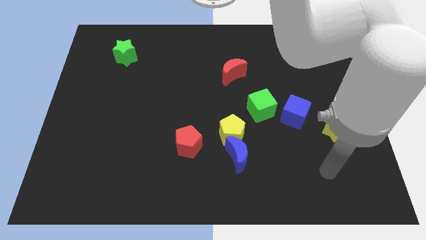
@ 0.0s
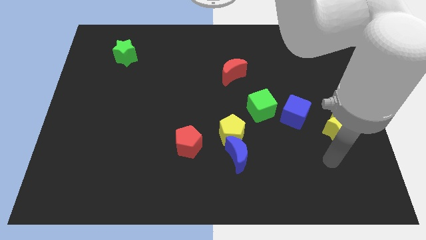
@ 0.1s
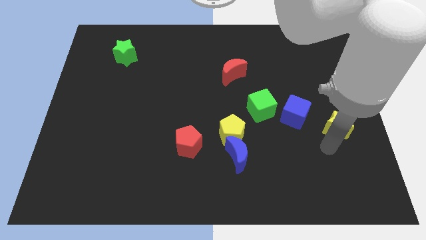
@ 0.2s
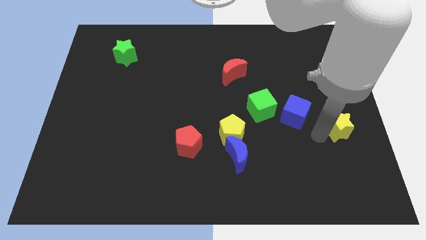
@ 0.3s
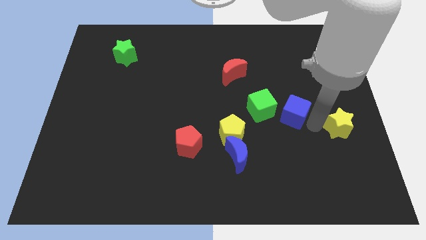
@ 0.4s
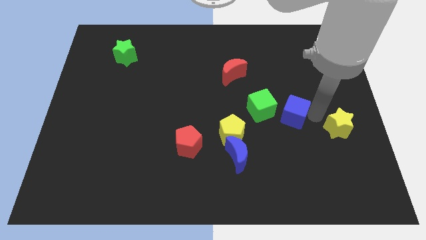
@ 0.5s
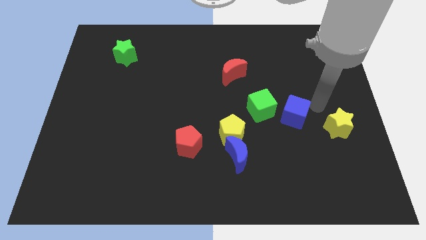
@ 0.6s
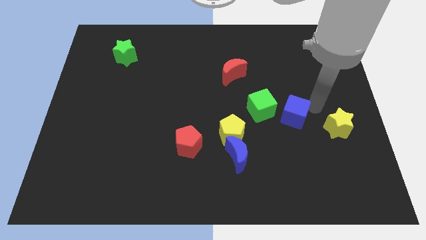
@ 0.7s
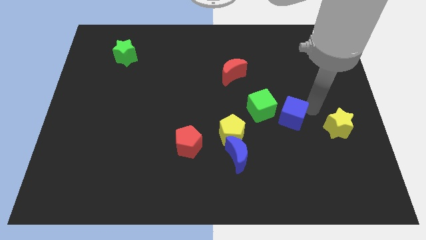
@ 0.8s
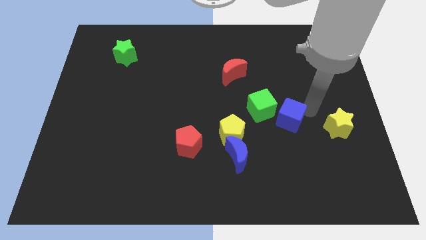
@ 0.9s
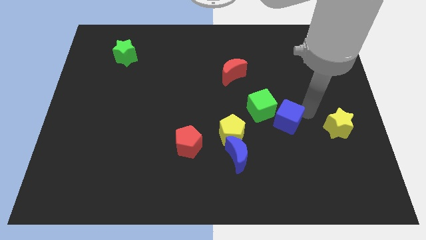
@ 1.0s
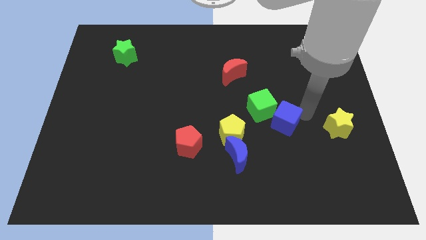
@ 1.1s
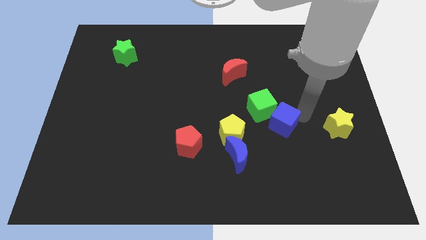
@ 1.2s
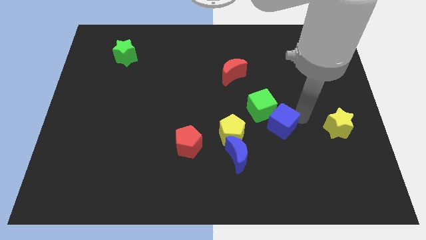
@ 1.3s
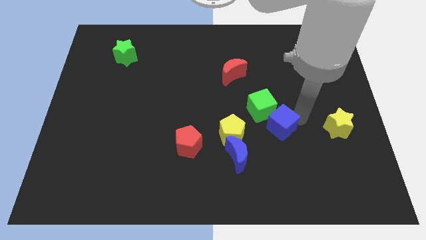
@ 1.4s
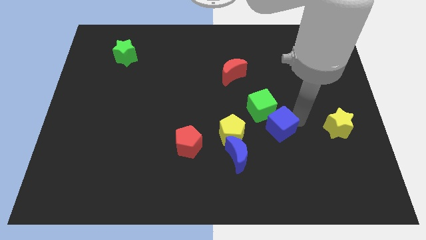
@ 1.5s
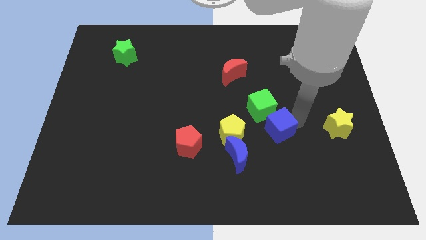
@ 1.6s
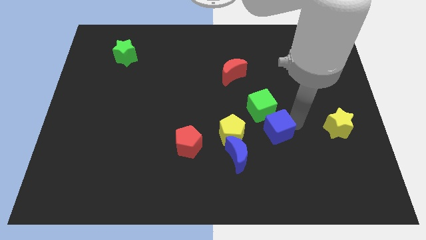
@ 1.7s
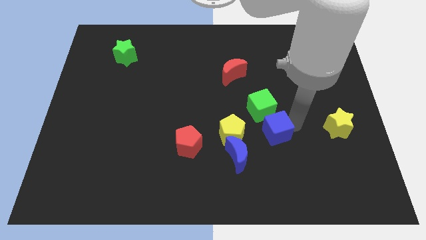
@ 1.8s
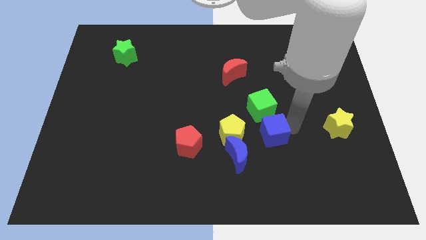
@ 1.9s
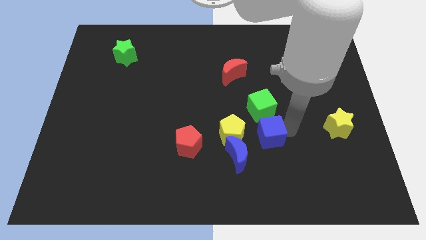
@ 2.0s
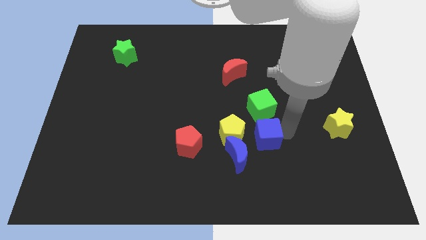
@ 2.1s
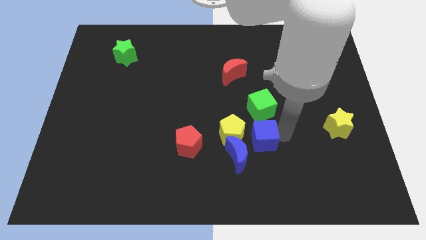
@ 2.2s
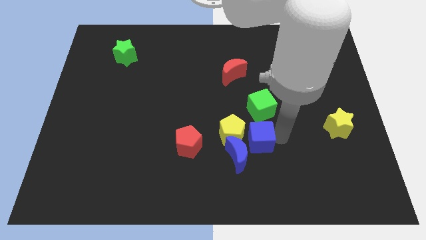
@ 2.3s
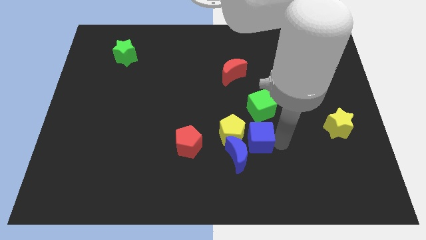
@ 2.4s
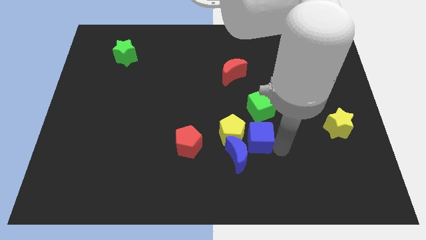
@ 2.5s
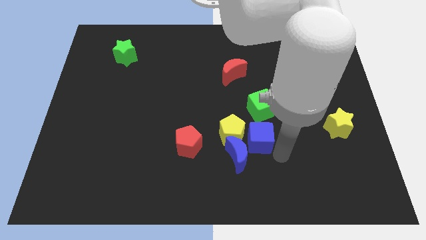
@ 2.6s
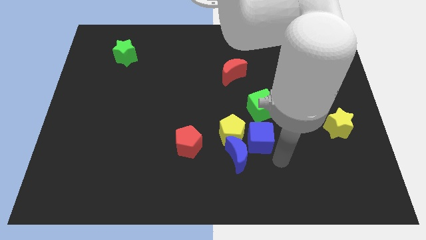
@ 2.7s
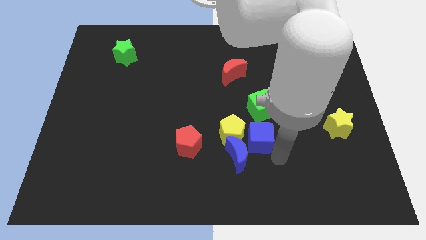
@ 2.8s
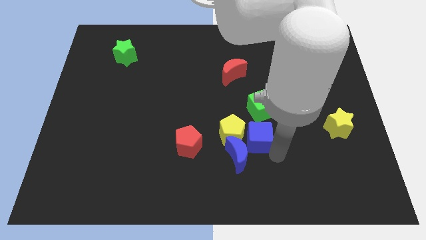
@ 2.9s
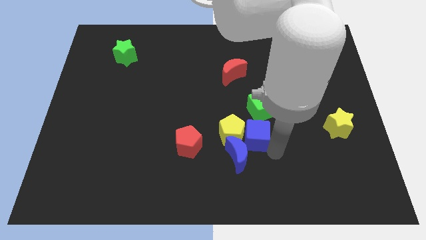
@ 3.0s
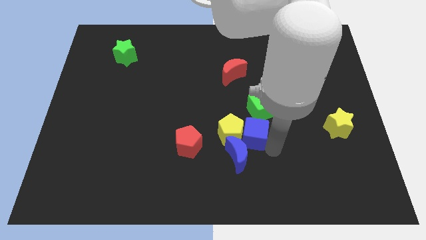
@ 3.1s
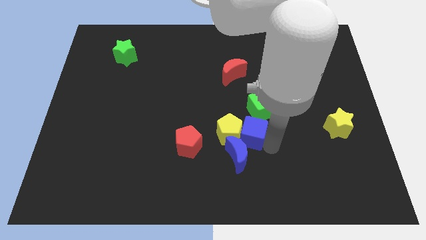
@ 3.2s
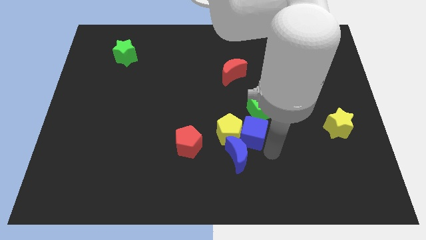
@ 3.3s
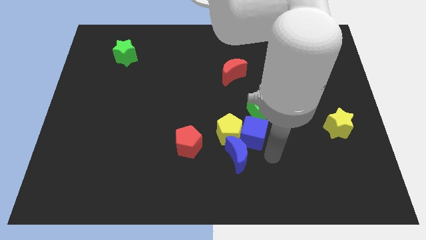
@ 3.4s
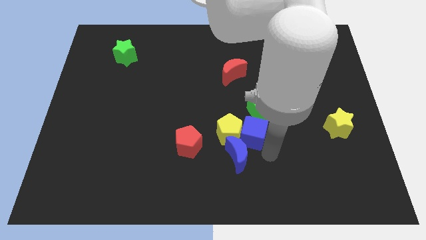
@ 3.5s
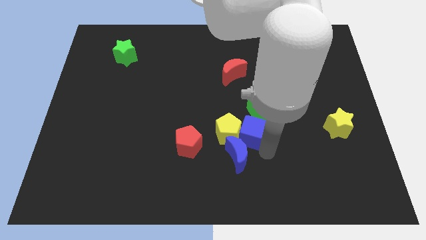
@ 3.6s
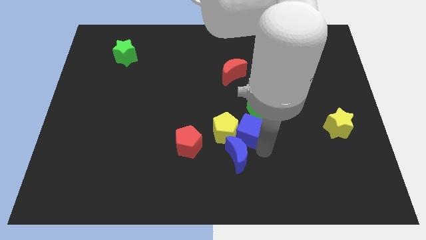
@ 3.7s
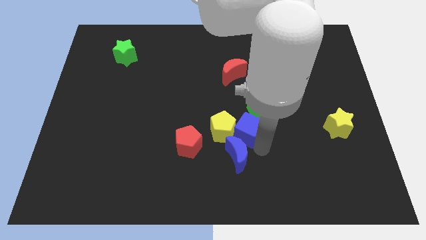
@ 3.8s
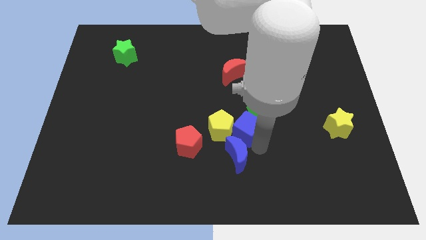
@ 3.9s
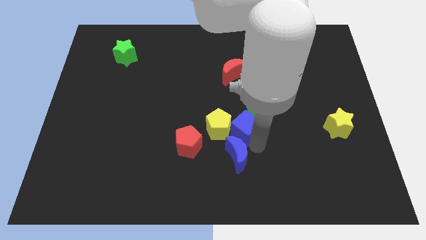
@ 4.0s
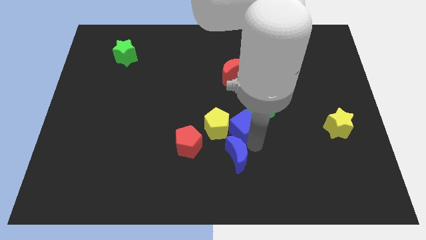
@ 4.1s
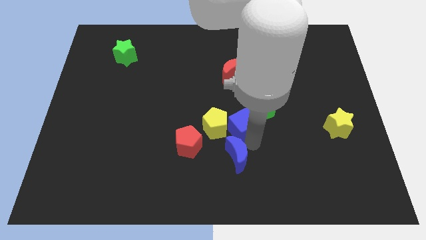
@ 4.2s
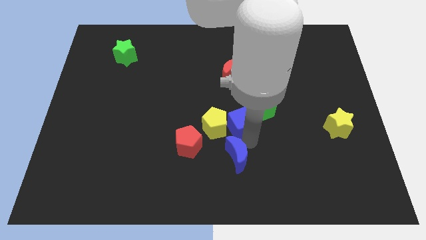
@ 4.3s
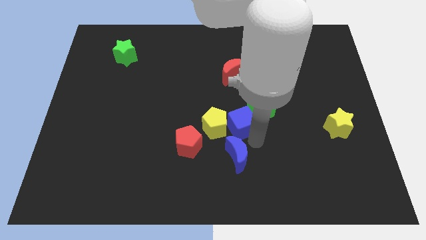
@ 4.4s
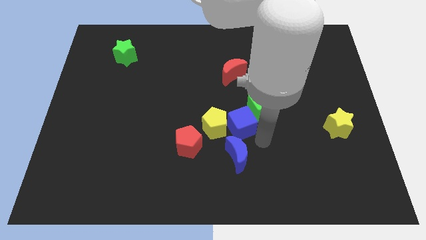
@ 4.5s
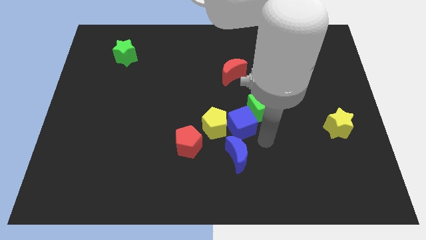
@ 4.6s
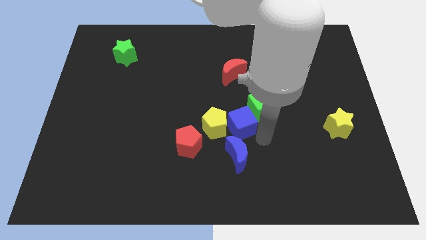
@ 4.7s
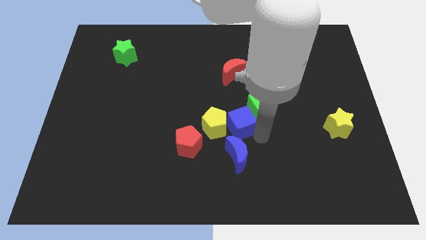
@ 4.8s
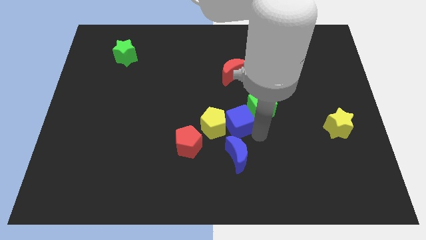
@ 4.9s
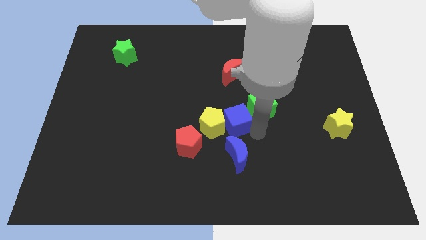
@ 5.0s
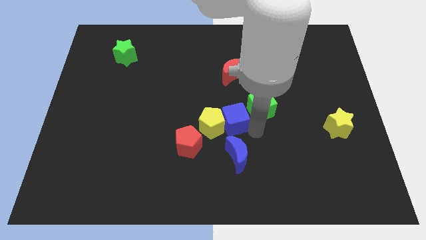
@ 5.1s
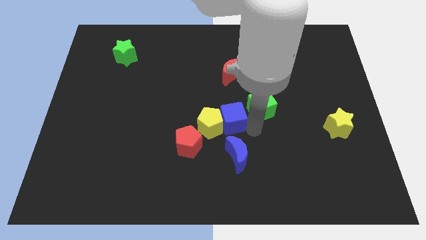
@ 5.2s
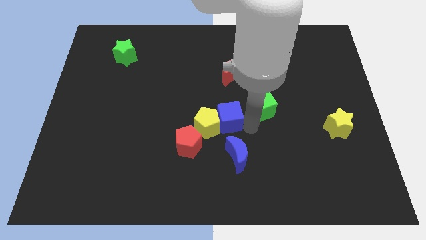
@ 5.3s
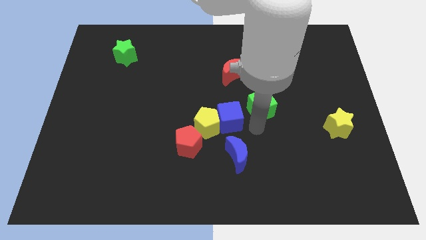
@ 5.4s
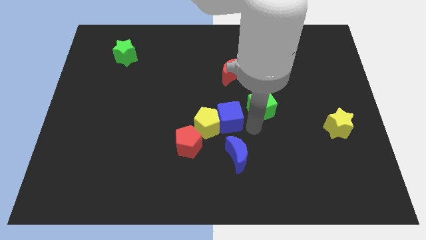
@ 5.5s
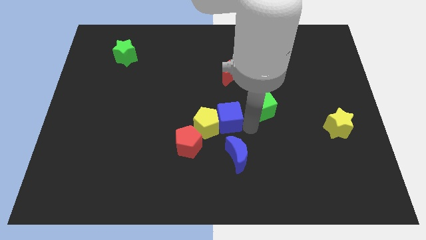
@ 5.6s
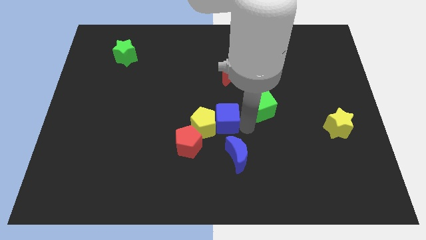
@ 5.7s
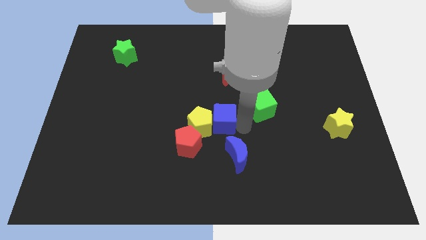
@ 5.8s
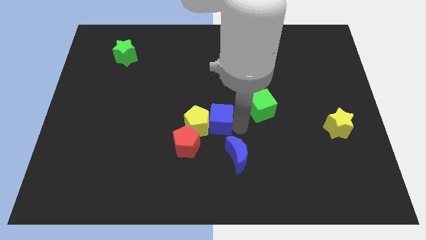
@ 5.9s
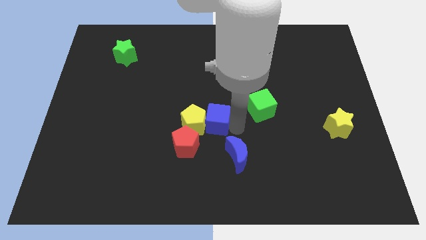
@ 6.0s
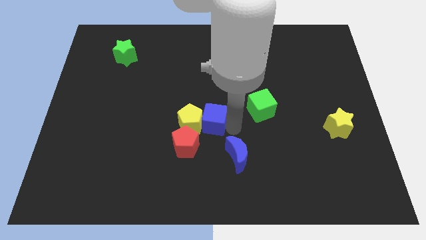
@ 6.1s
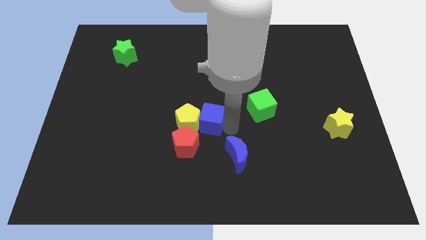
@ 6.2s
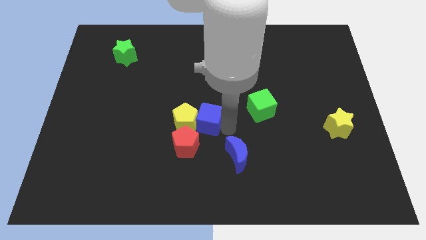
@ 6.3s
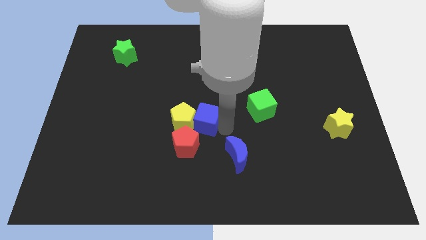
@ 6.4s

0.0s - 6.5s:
move the blue cube to the left

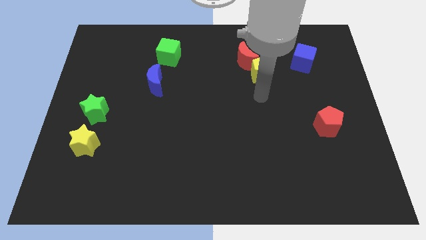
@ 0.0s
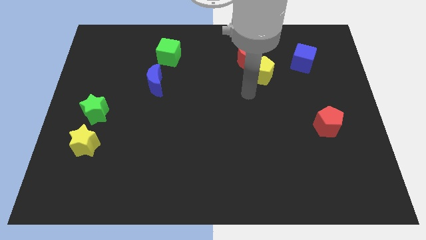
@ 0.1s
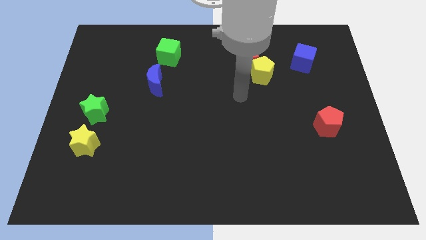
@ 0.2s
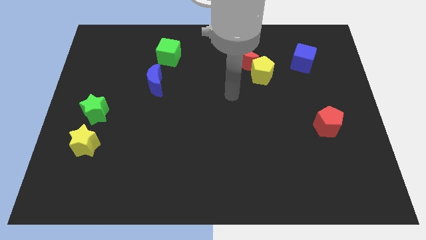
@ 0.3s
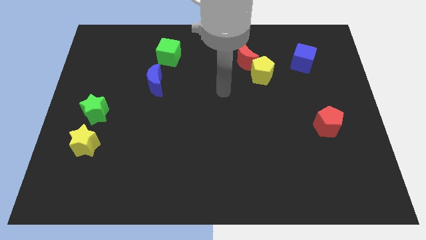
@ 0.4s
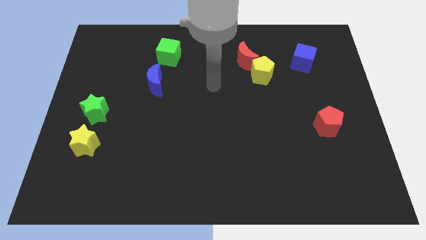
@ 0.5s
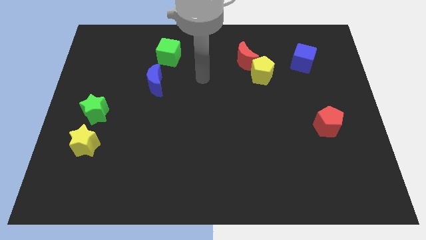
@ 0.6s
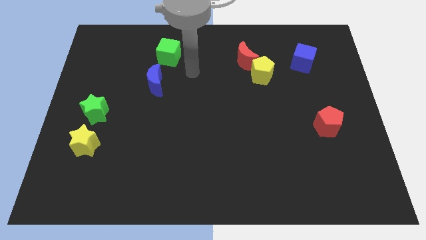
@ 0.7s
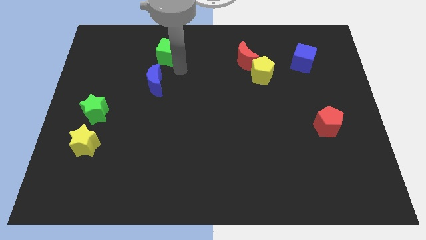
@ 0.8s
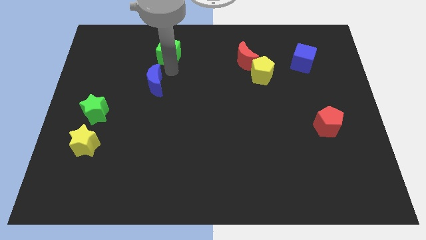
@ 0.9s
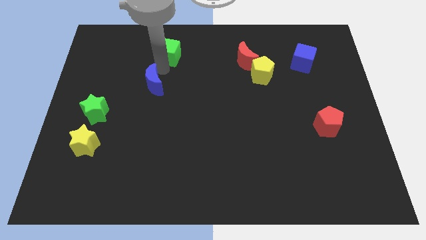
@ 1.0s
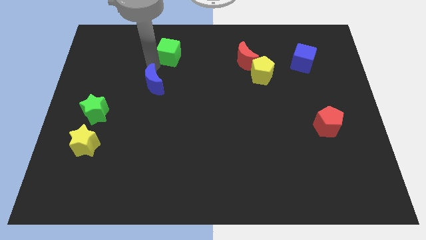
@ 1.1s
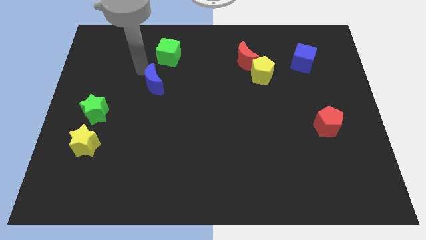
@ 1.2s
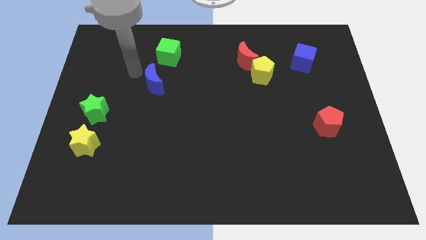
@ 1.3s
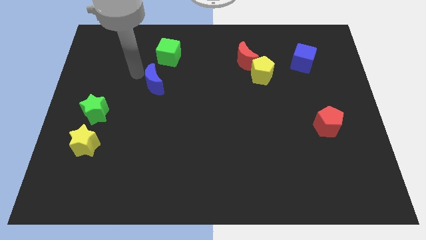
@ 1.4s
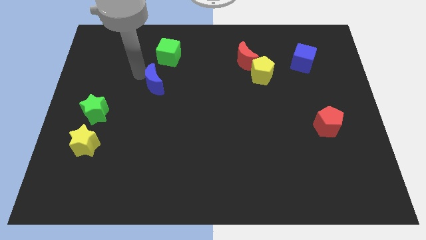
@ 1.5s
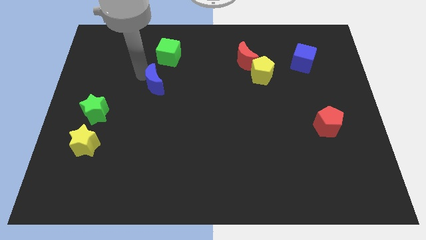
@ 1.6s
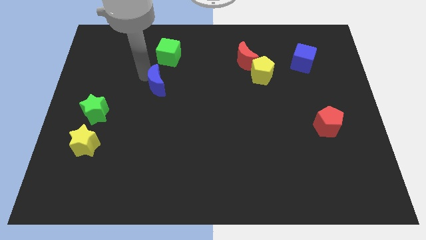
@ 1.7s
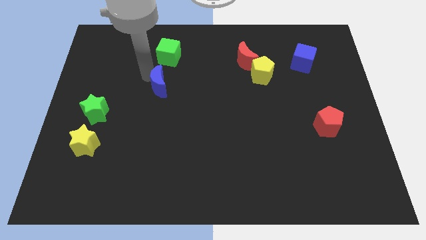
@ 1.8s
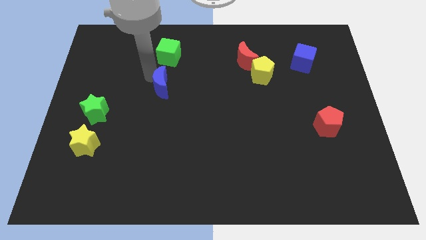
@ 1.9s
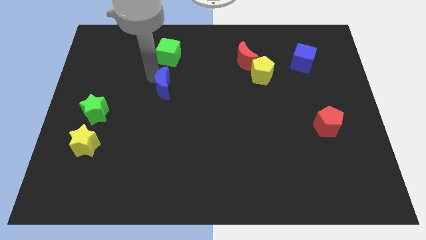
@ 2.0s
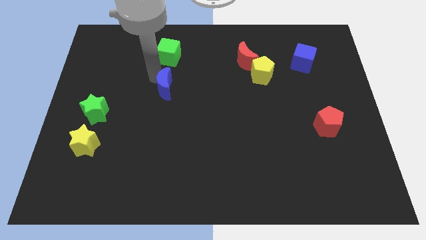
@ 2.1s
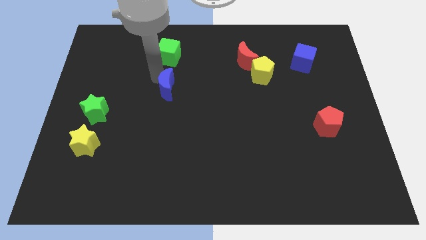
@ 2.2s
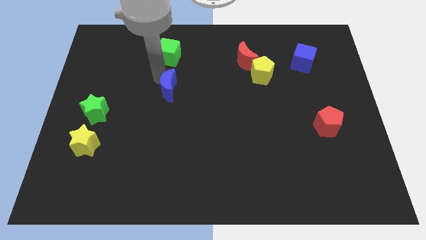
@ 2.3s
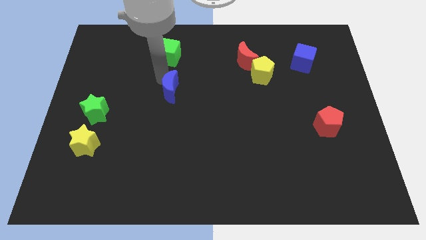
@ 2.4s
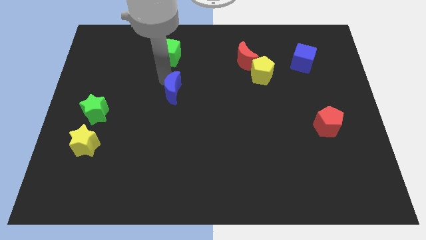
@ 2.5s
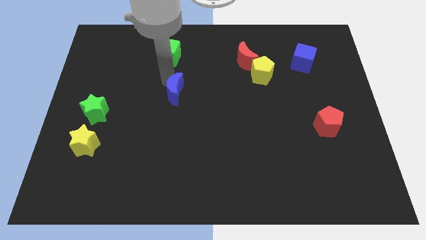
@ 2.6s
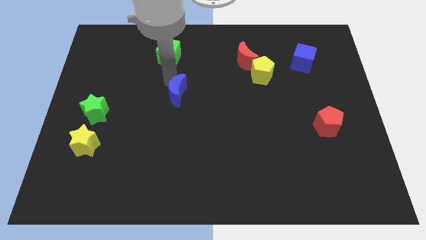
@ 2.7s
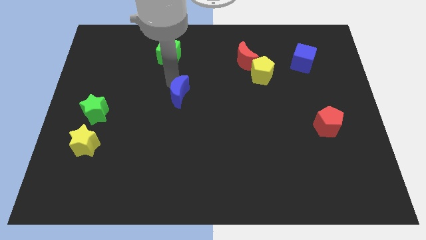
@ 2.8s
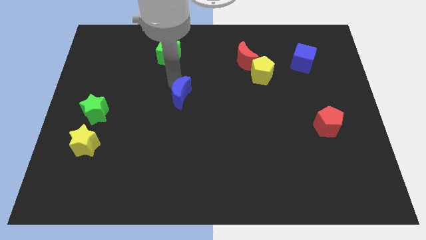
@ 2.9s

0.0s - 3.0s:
slightly slide the blue moon down and to the right
